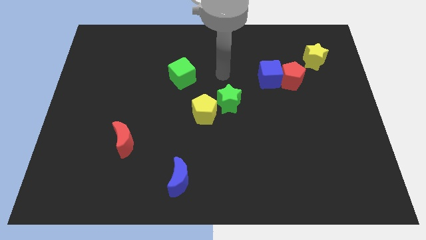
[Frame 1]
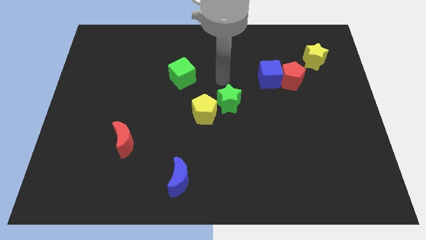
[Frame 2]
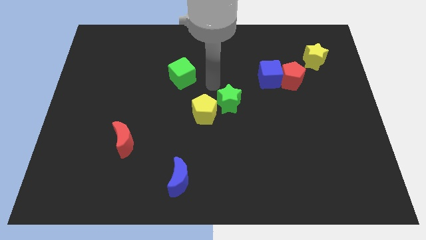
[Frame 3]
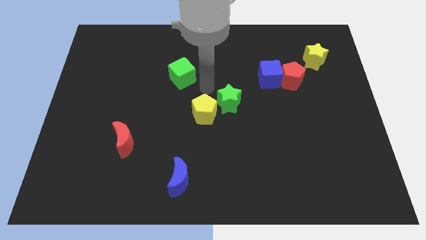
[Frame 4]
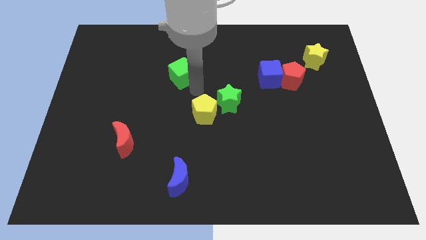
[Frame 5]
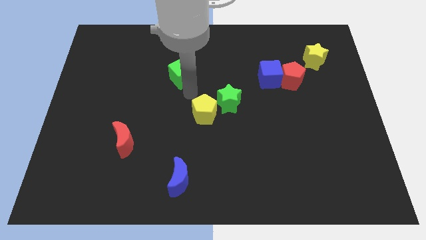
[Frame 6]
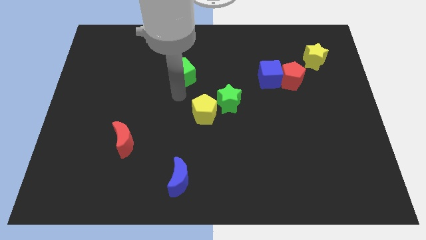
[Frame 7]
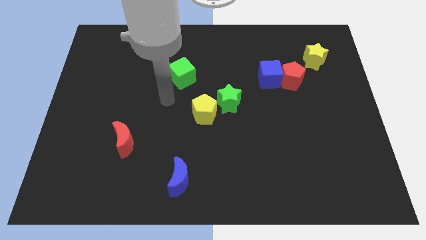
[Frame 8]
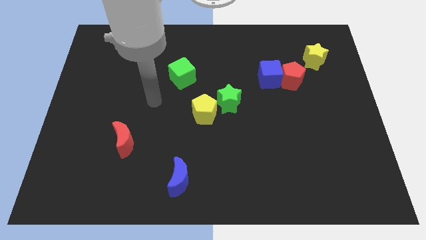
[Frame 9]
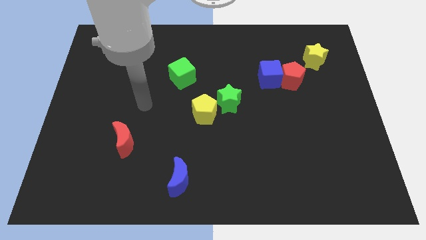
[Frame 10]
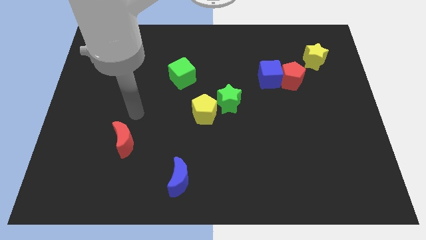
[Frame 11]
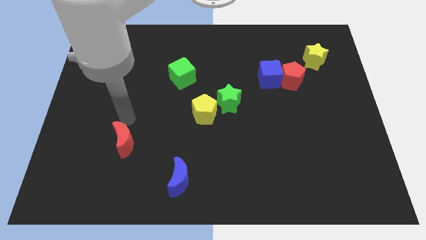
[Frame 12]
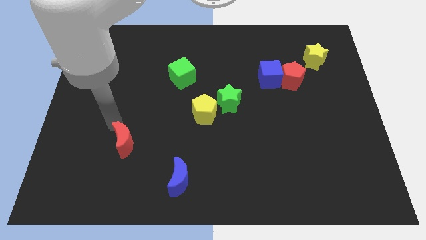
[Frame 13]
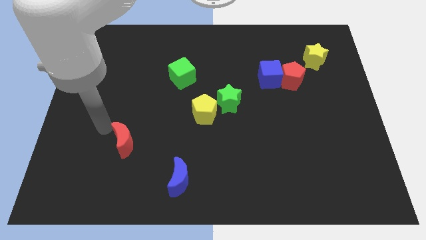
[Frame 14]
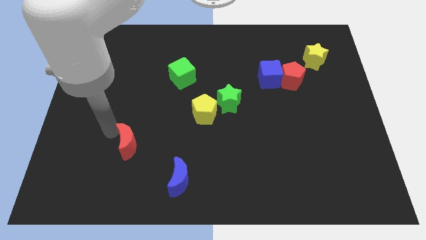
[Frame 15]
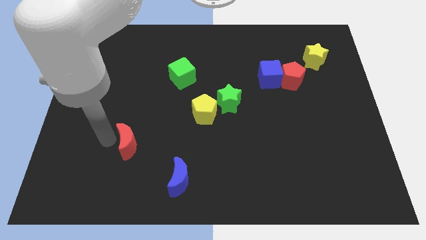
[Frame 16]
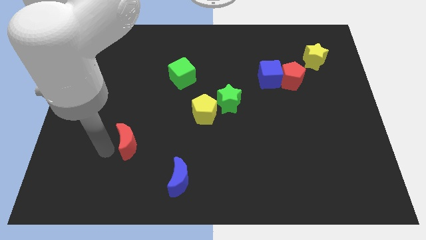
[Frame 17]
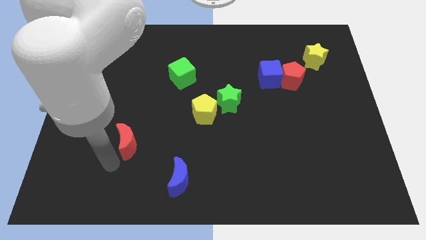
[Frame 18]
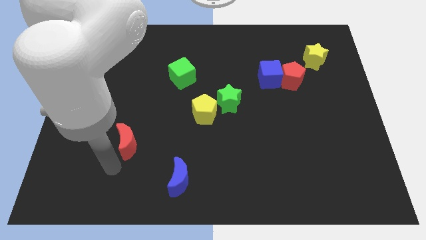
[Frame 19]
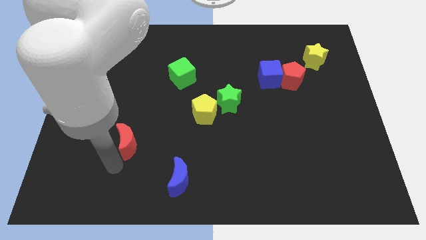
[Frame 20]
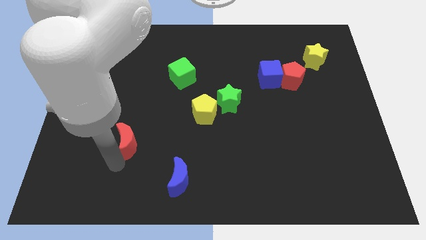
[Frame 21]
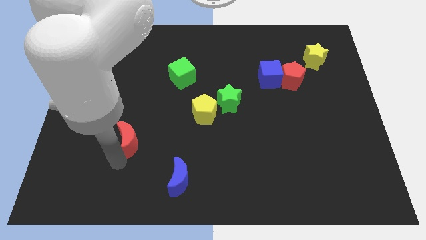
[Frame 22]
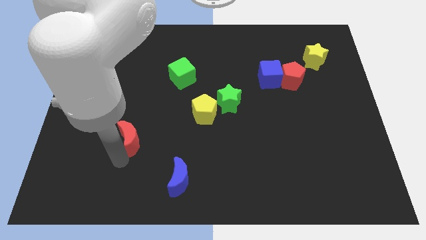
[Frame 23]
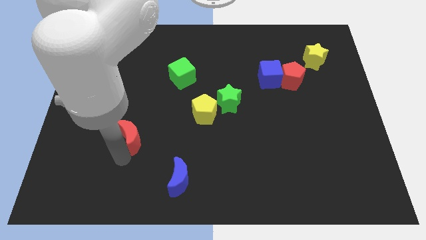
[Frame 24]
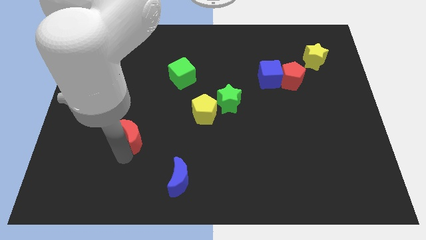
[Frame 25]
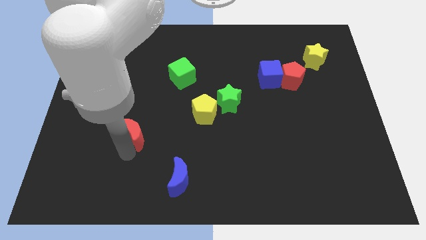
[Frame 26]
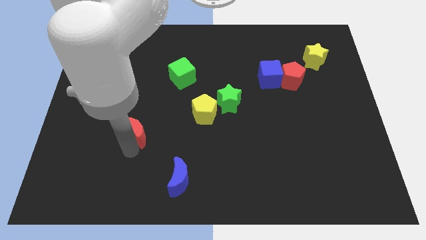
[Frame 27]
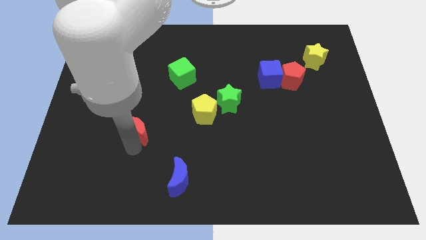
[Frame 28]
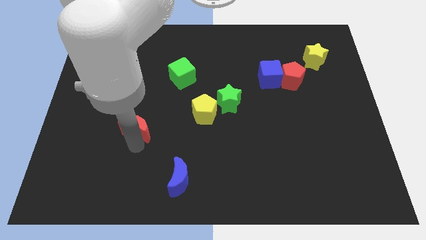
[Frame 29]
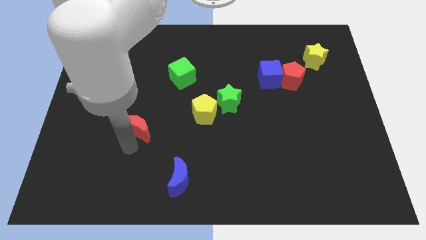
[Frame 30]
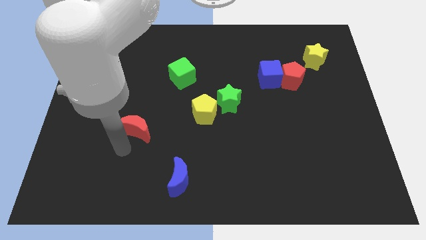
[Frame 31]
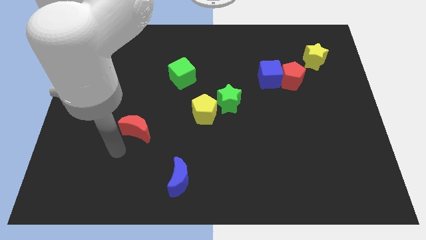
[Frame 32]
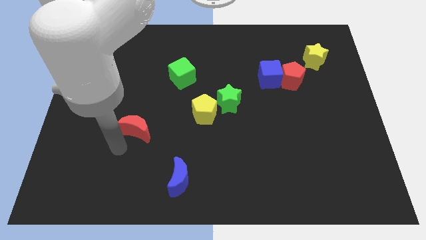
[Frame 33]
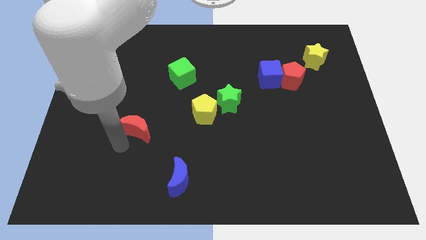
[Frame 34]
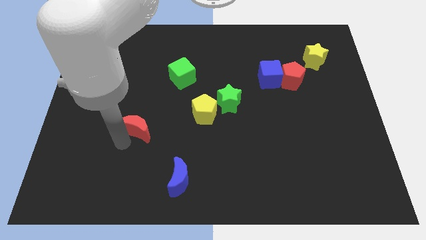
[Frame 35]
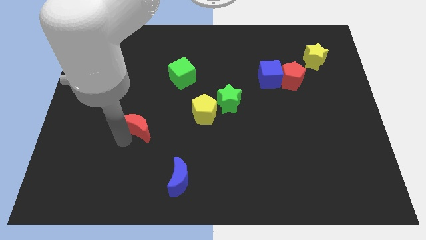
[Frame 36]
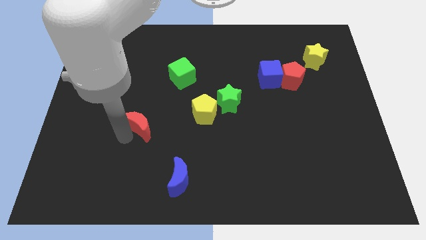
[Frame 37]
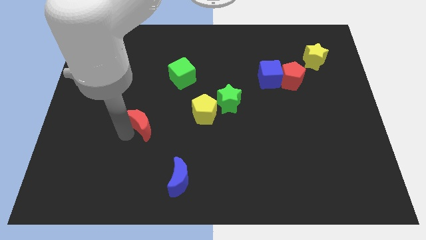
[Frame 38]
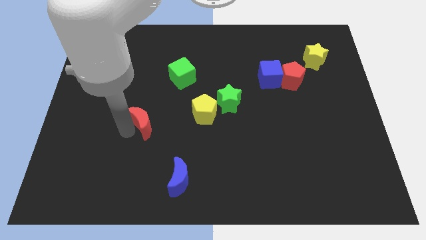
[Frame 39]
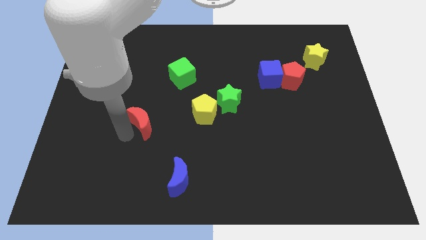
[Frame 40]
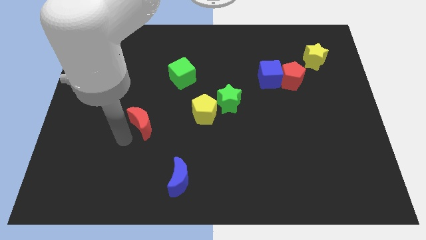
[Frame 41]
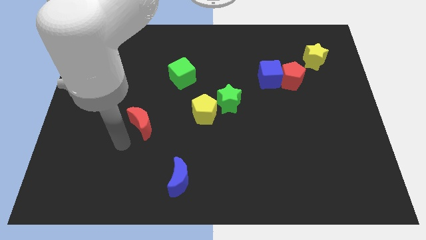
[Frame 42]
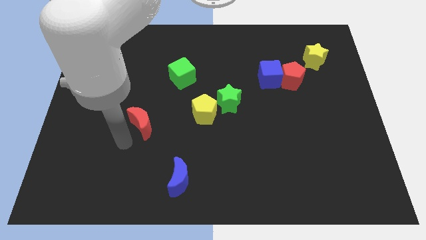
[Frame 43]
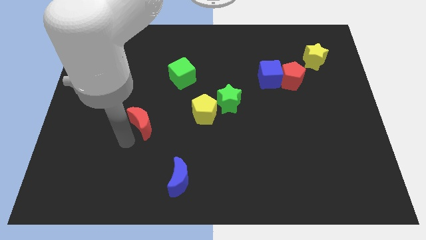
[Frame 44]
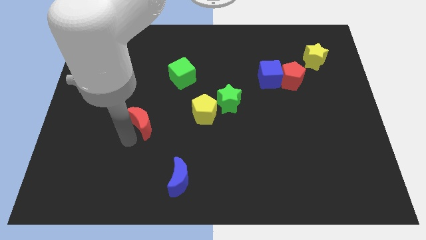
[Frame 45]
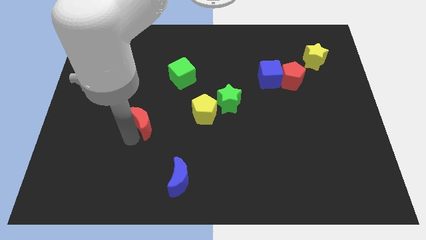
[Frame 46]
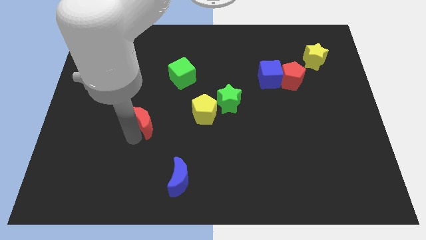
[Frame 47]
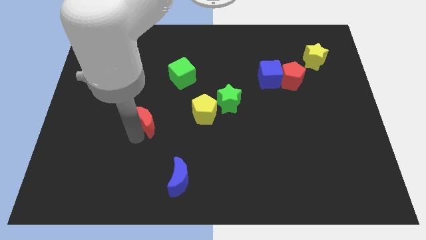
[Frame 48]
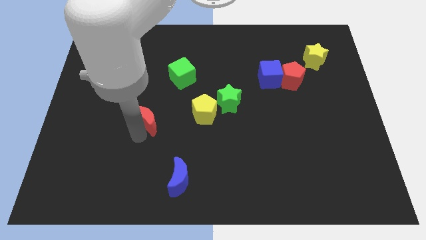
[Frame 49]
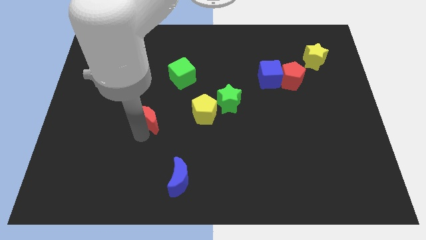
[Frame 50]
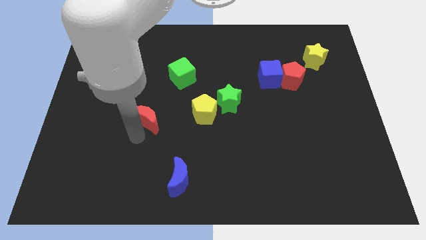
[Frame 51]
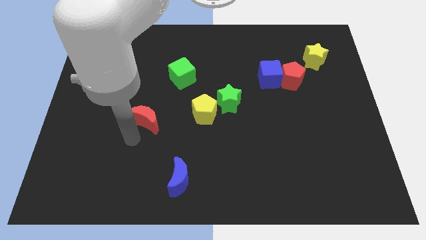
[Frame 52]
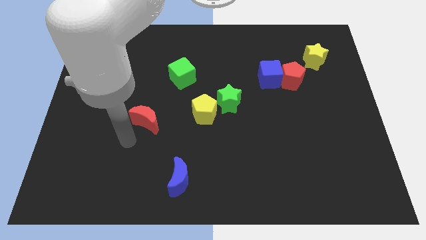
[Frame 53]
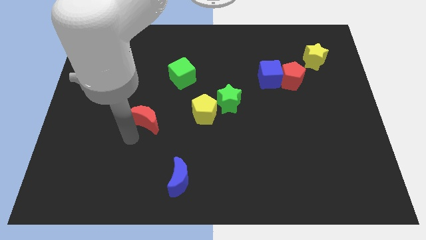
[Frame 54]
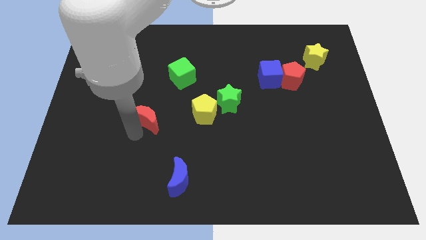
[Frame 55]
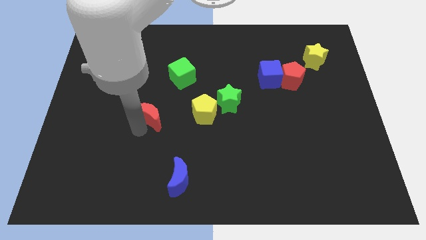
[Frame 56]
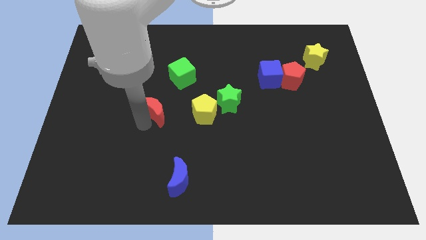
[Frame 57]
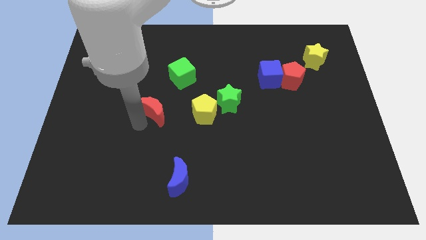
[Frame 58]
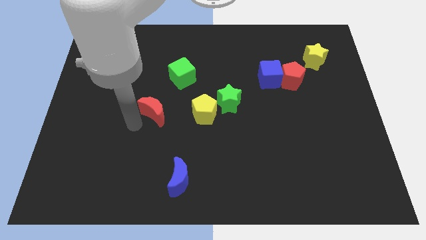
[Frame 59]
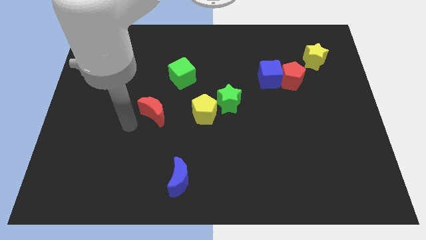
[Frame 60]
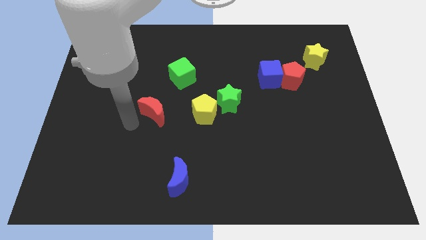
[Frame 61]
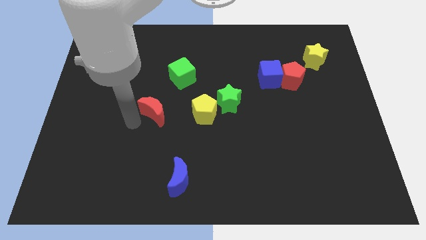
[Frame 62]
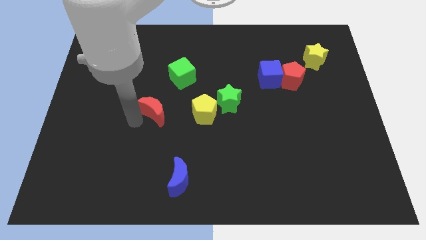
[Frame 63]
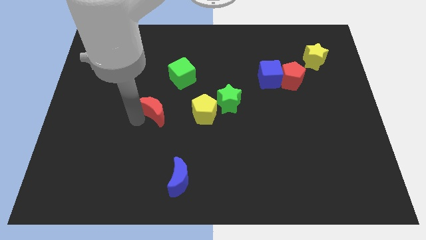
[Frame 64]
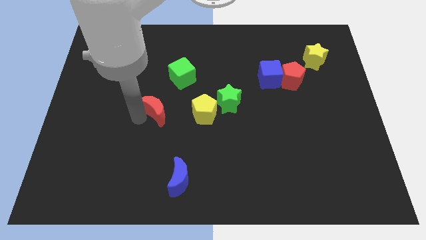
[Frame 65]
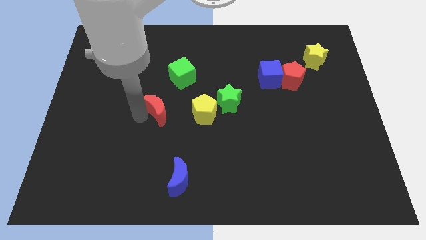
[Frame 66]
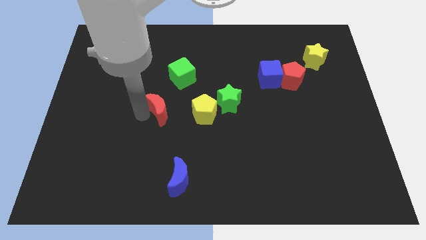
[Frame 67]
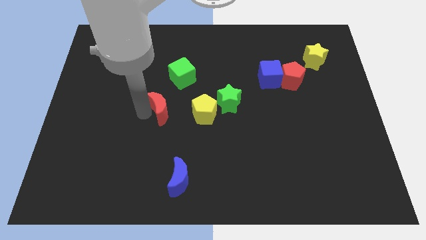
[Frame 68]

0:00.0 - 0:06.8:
put the red moon to the middle

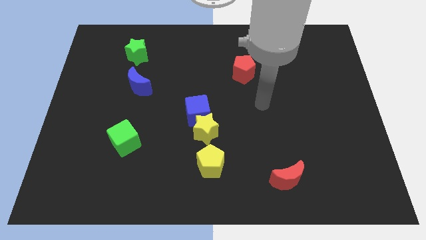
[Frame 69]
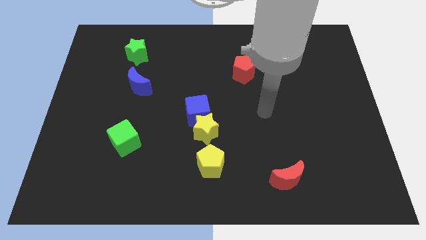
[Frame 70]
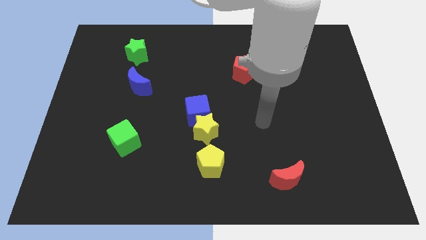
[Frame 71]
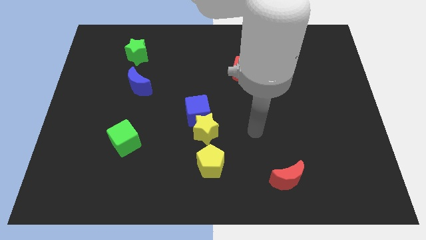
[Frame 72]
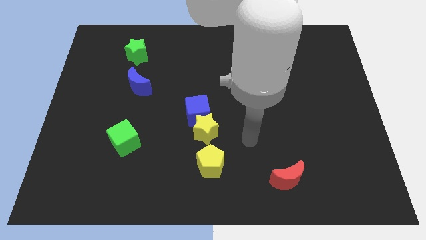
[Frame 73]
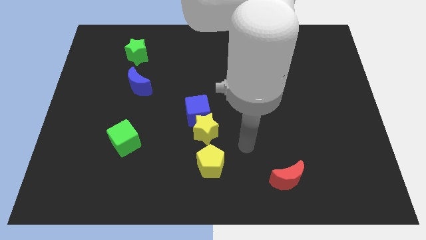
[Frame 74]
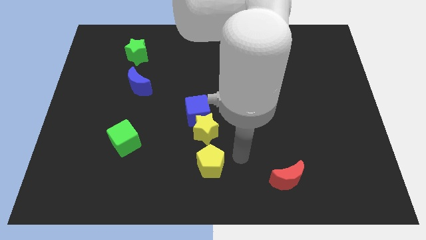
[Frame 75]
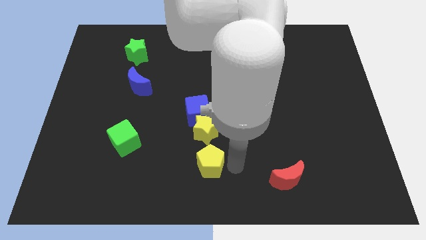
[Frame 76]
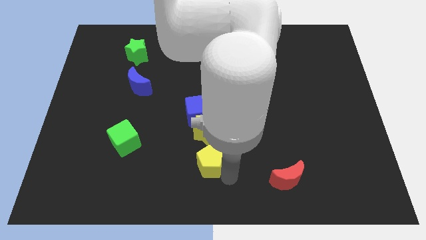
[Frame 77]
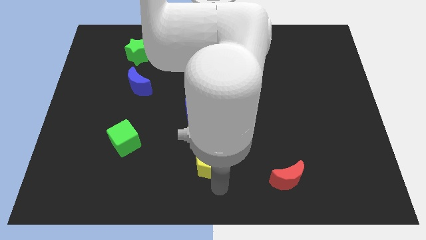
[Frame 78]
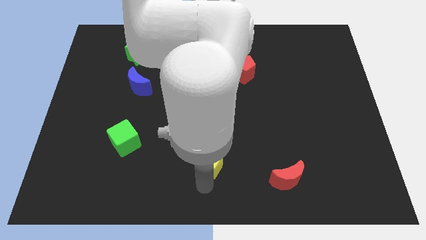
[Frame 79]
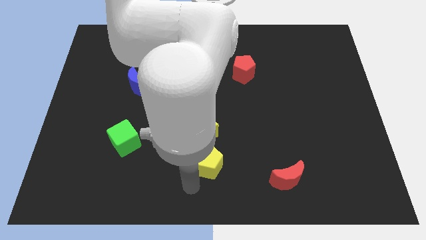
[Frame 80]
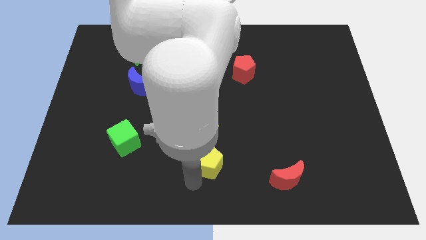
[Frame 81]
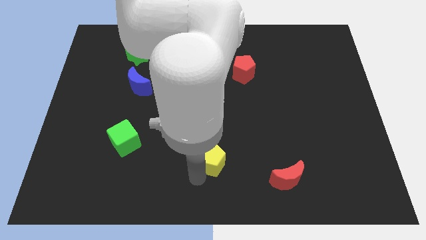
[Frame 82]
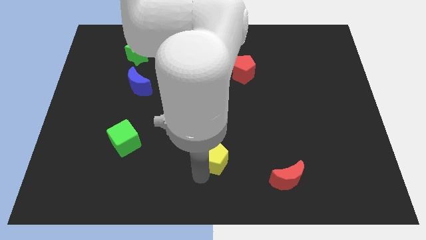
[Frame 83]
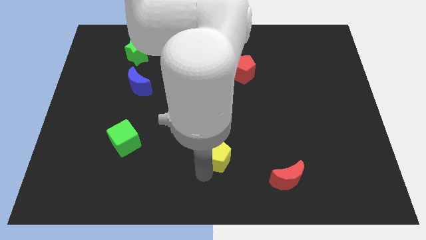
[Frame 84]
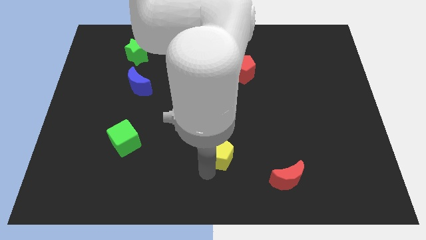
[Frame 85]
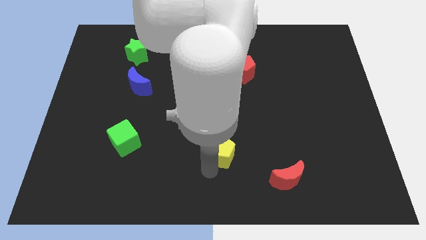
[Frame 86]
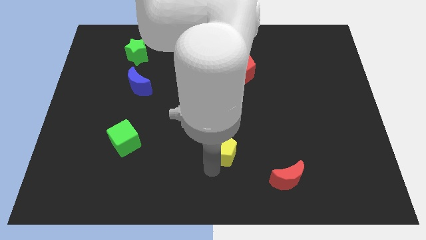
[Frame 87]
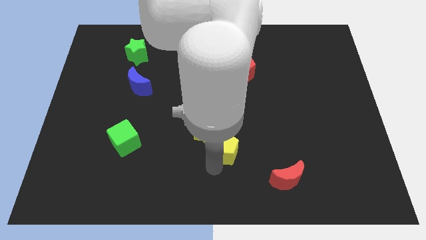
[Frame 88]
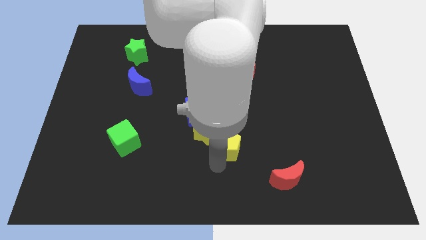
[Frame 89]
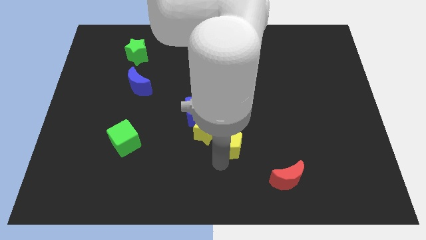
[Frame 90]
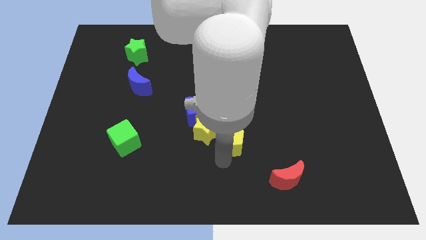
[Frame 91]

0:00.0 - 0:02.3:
push the yellow pentagon to the middle
